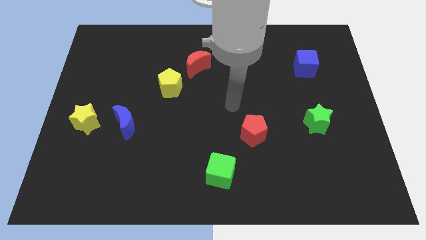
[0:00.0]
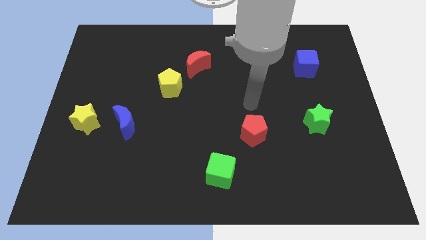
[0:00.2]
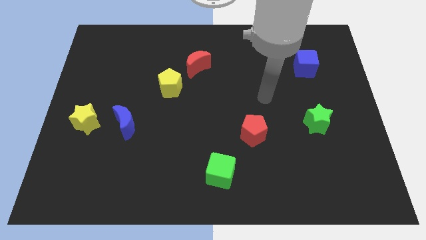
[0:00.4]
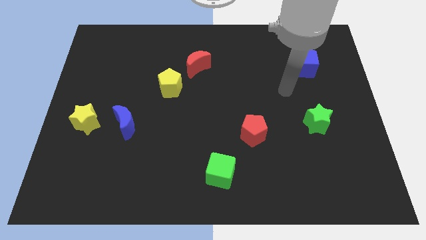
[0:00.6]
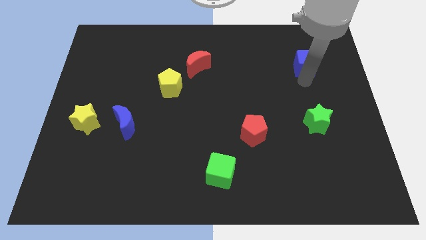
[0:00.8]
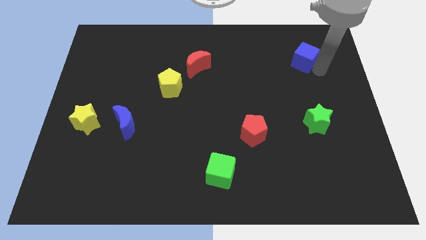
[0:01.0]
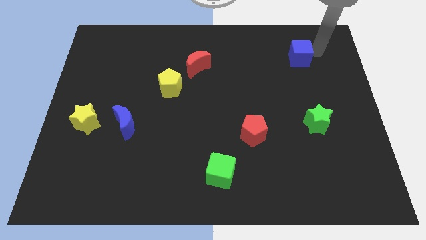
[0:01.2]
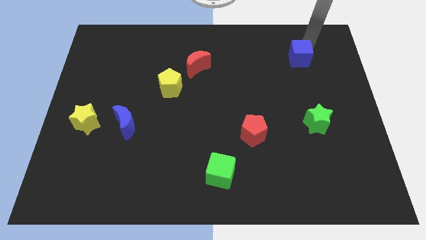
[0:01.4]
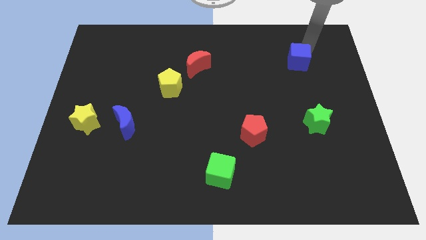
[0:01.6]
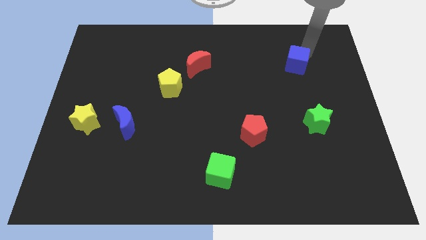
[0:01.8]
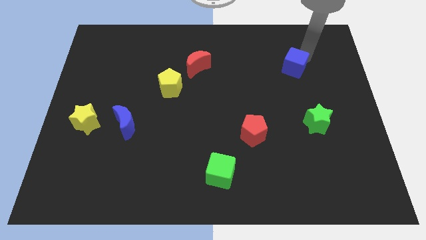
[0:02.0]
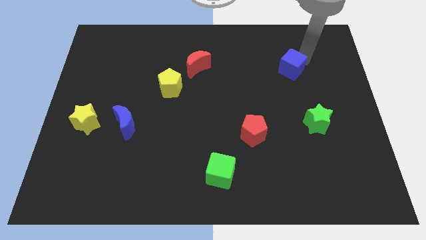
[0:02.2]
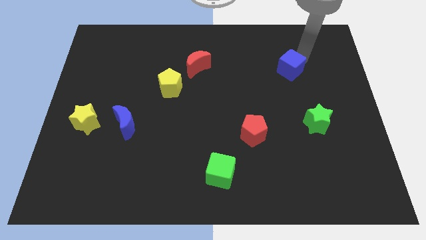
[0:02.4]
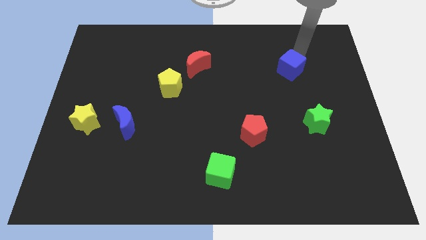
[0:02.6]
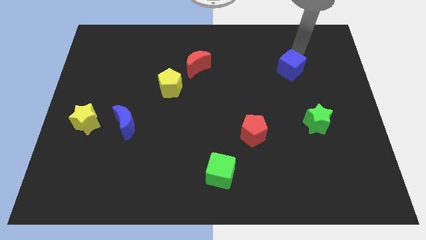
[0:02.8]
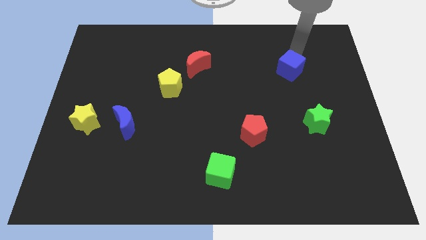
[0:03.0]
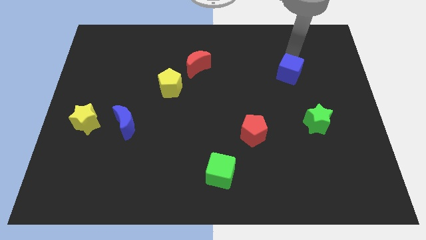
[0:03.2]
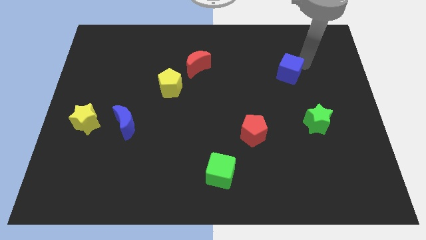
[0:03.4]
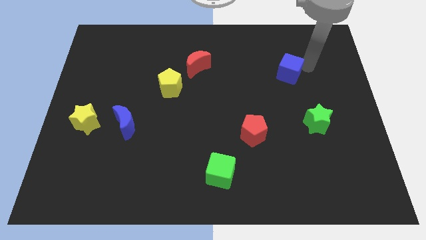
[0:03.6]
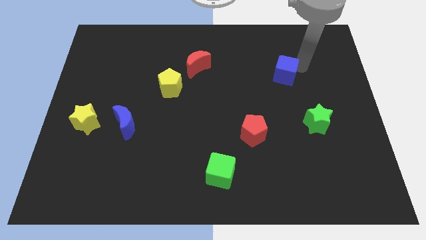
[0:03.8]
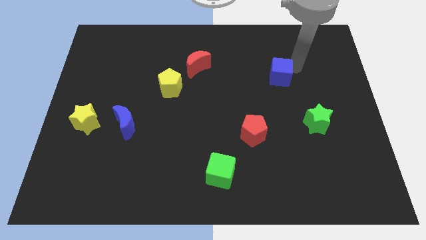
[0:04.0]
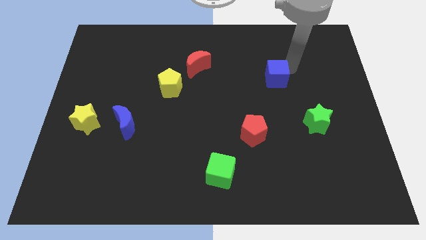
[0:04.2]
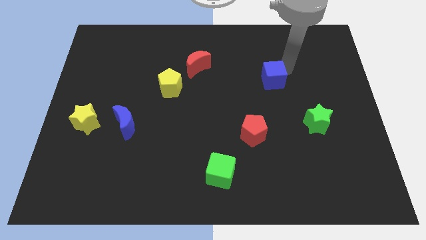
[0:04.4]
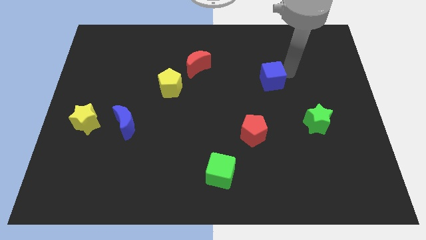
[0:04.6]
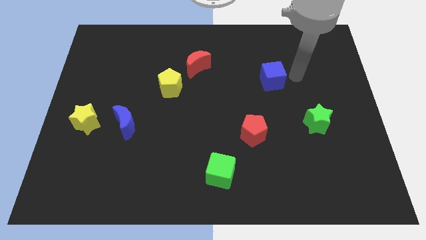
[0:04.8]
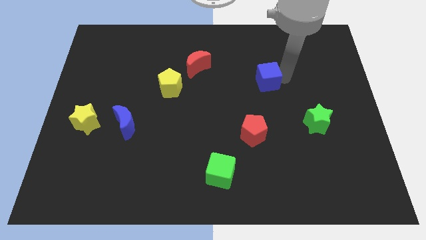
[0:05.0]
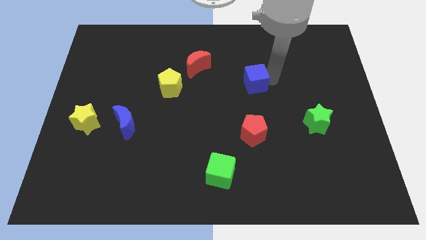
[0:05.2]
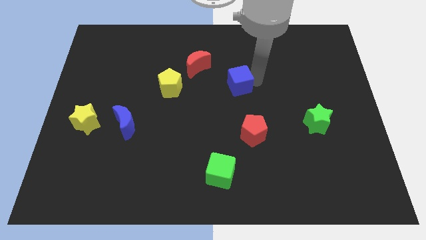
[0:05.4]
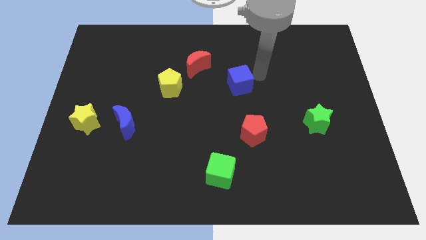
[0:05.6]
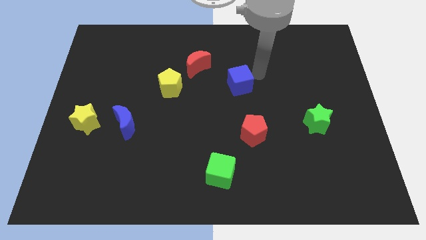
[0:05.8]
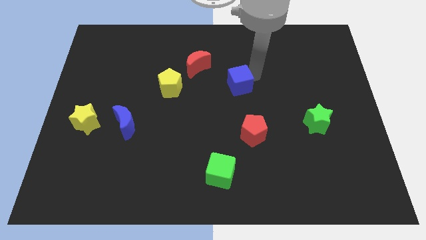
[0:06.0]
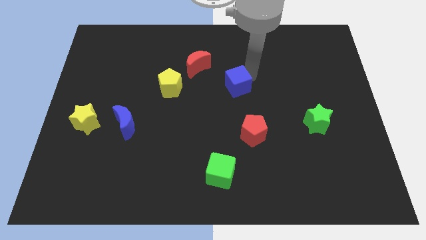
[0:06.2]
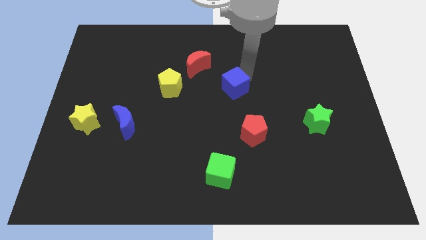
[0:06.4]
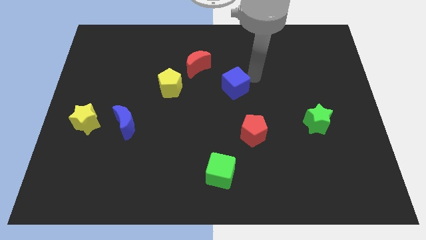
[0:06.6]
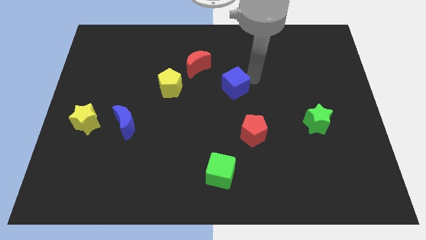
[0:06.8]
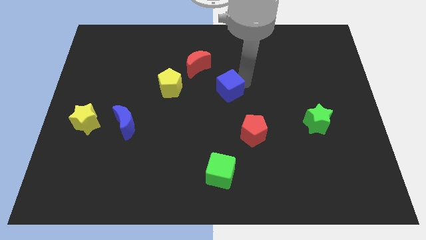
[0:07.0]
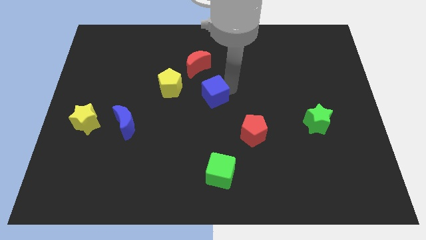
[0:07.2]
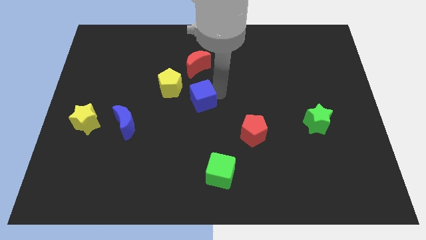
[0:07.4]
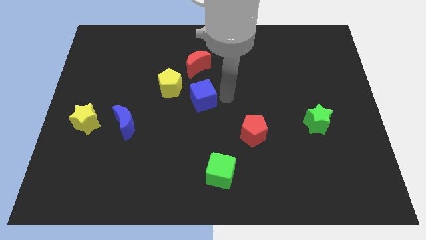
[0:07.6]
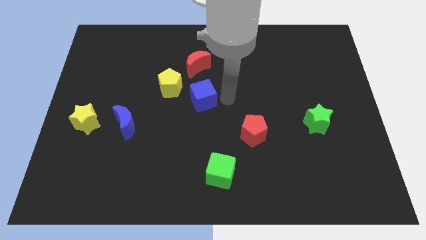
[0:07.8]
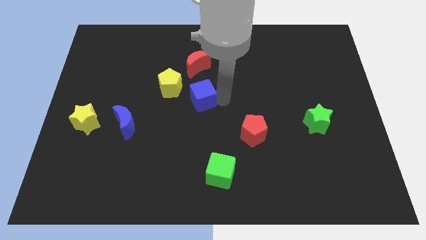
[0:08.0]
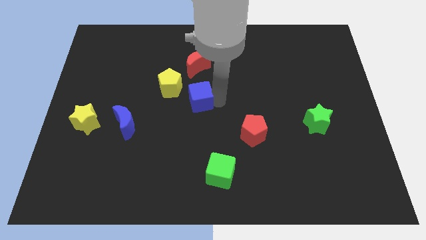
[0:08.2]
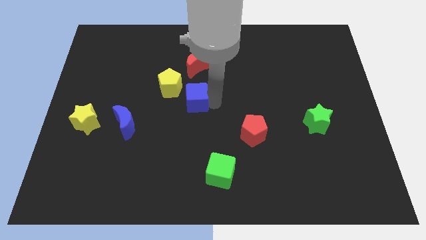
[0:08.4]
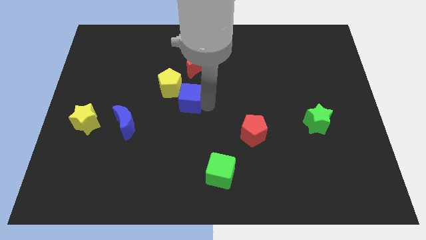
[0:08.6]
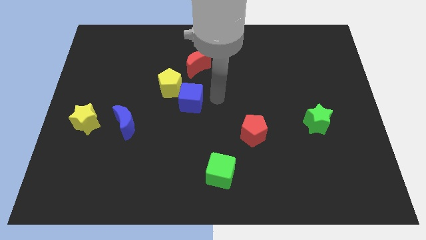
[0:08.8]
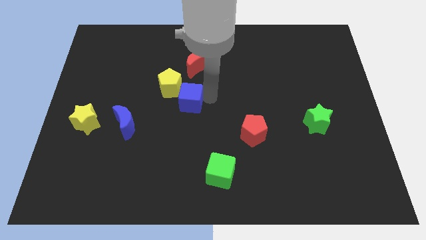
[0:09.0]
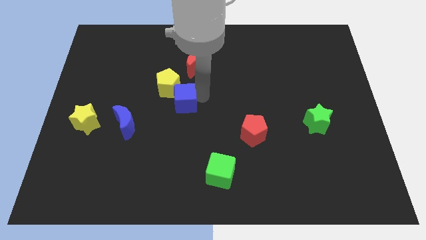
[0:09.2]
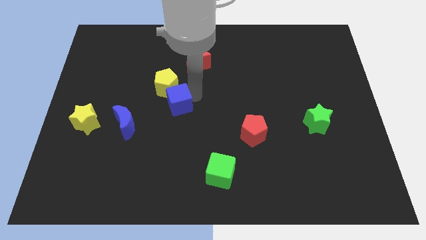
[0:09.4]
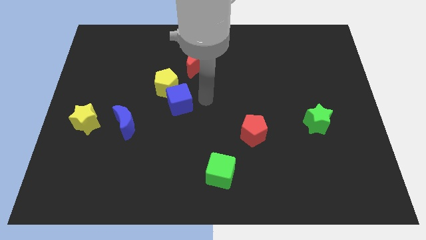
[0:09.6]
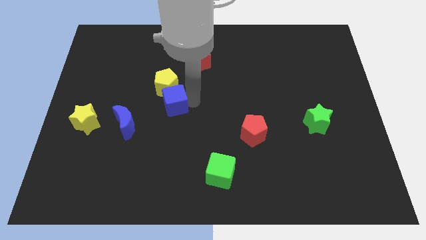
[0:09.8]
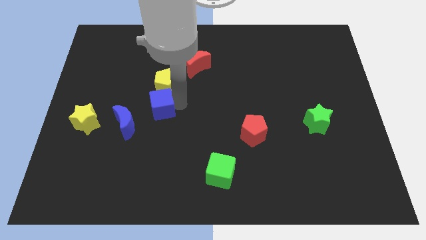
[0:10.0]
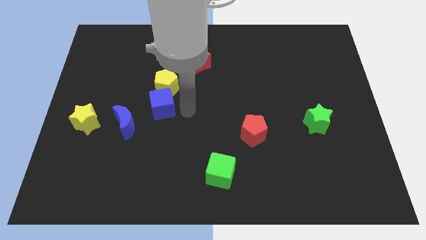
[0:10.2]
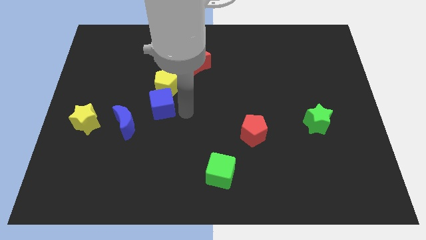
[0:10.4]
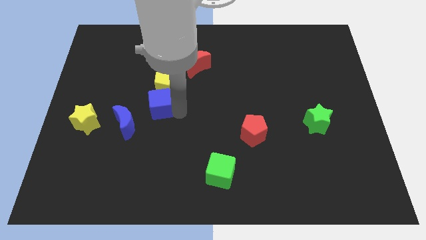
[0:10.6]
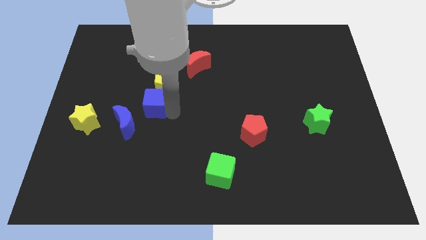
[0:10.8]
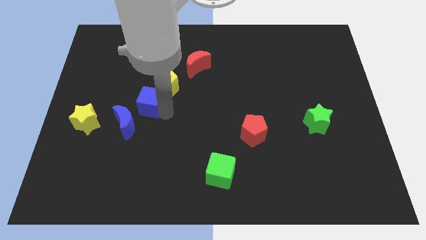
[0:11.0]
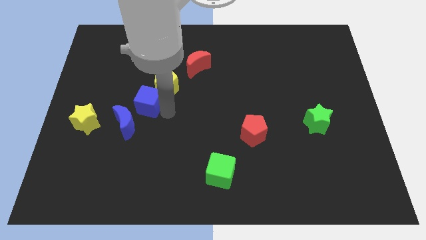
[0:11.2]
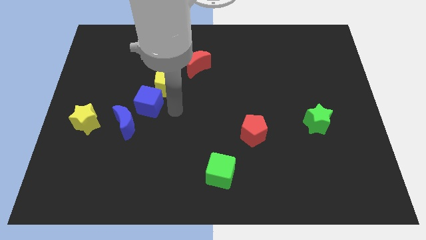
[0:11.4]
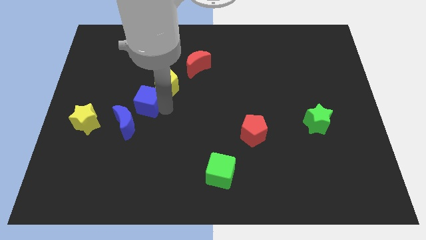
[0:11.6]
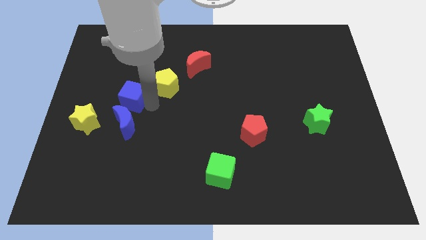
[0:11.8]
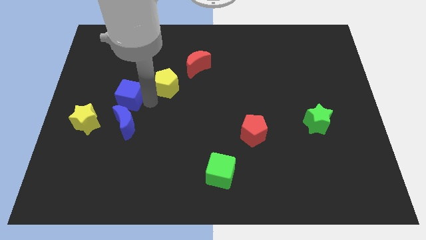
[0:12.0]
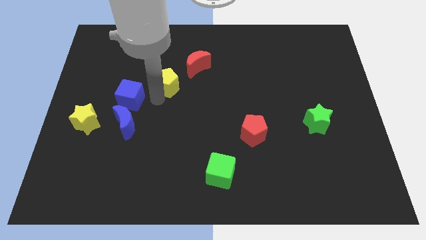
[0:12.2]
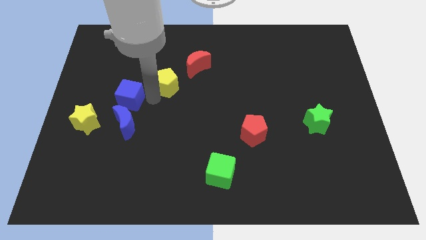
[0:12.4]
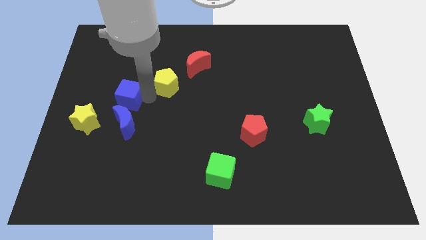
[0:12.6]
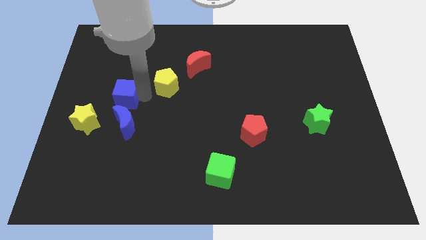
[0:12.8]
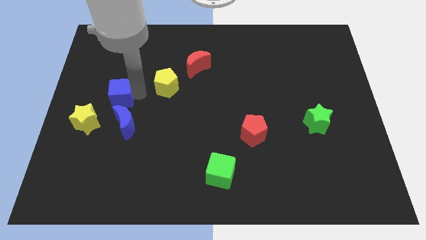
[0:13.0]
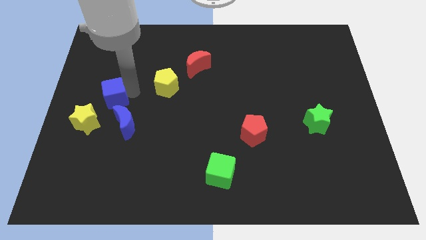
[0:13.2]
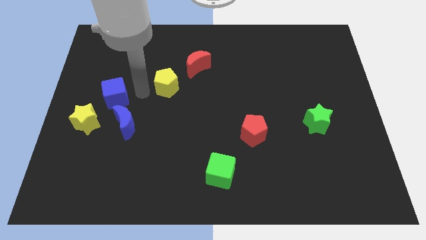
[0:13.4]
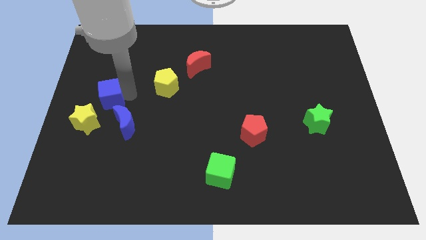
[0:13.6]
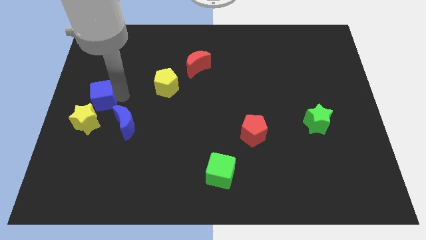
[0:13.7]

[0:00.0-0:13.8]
slide the blue cube to the center left
